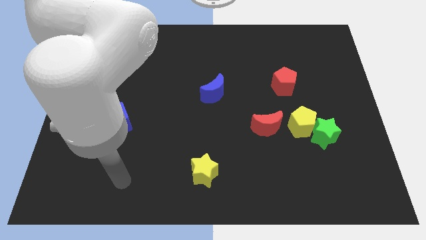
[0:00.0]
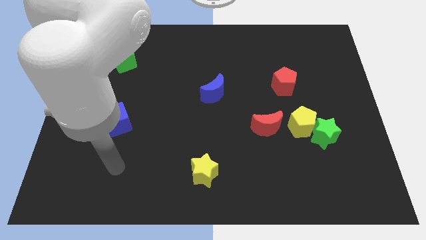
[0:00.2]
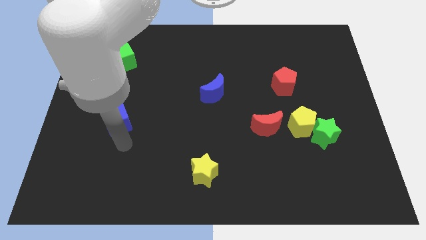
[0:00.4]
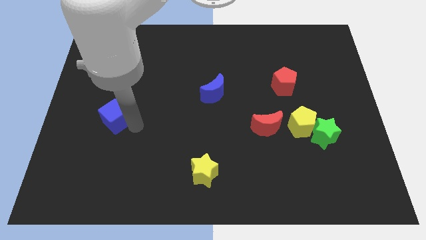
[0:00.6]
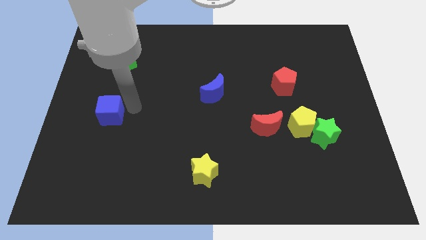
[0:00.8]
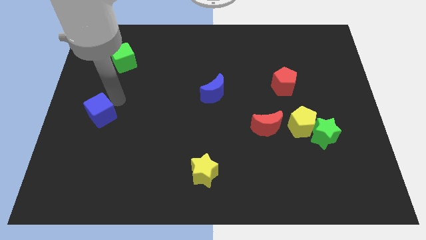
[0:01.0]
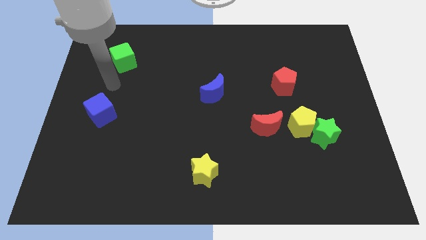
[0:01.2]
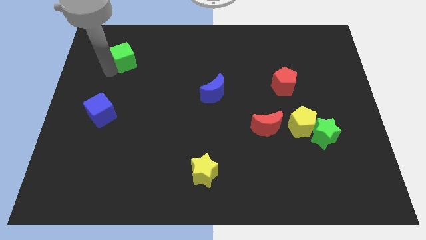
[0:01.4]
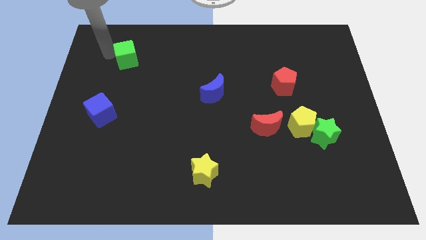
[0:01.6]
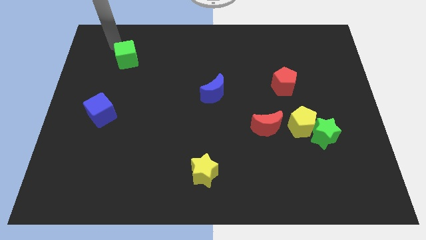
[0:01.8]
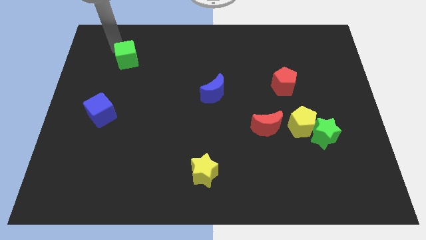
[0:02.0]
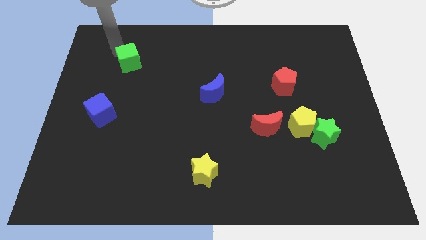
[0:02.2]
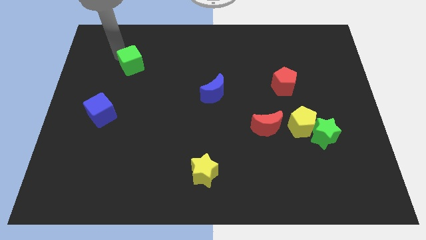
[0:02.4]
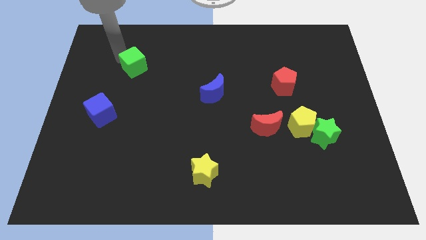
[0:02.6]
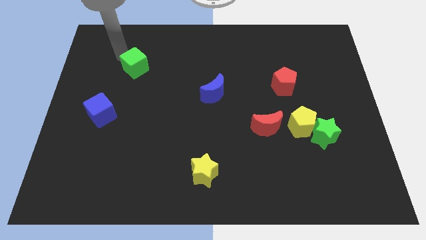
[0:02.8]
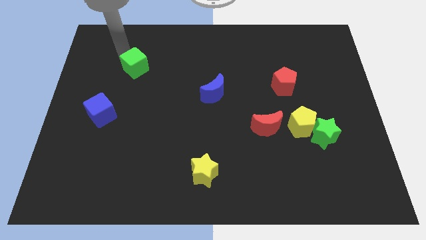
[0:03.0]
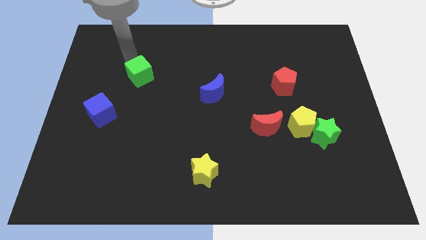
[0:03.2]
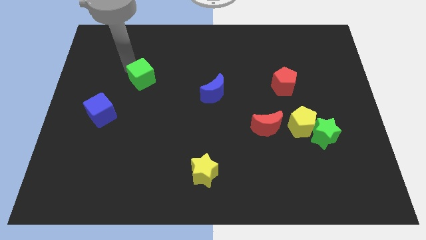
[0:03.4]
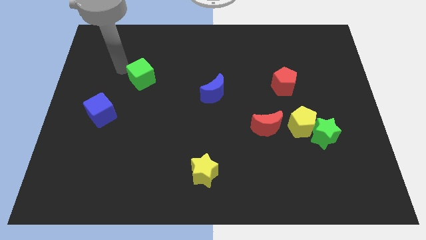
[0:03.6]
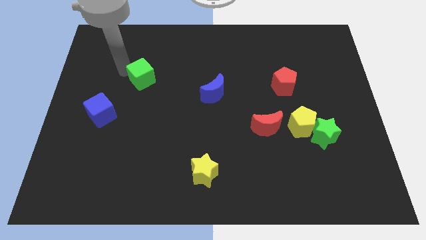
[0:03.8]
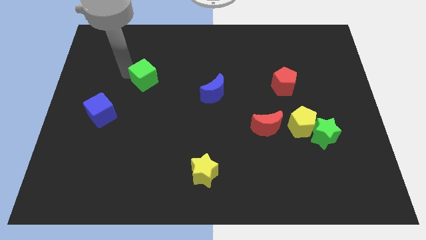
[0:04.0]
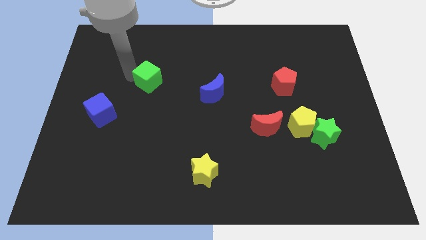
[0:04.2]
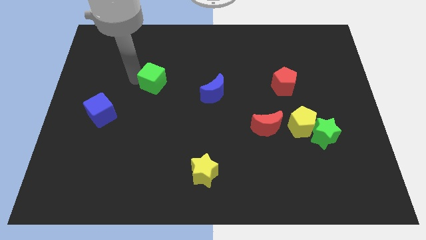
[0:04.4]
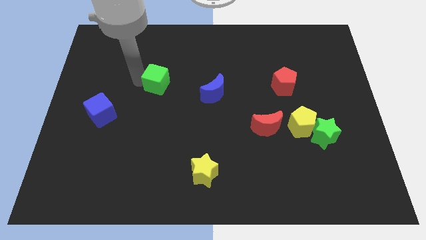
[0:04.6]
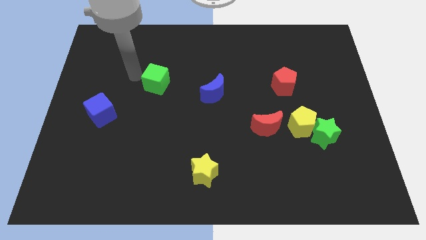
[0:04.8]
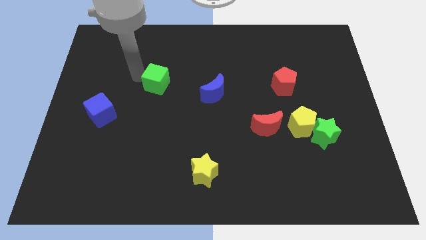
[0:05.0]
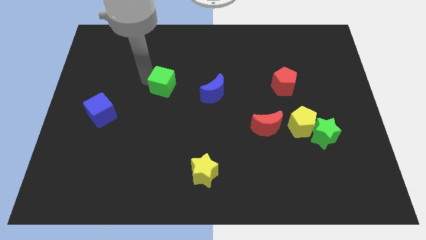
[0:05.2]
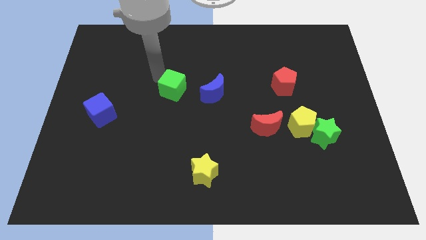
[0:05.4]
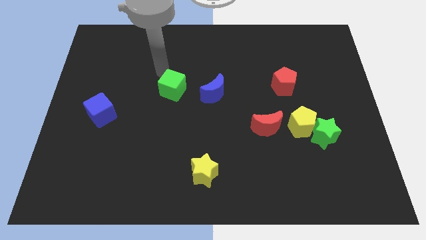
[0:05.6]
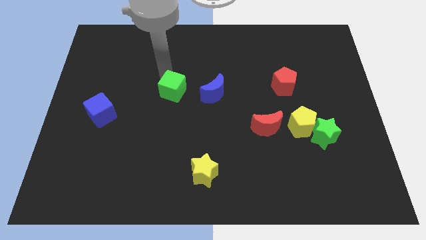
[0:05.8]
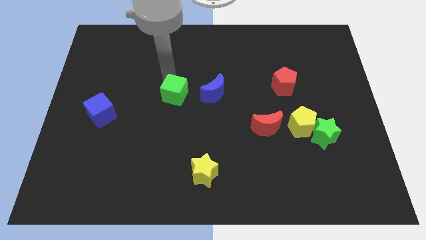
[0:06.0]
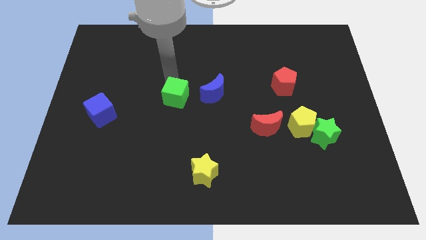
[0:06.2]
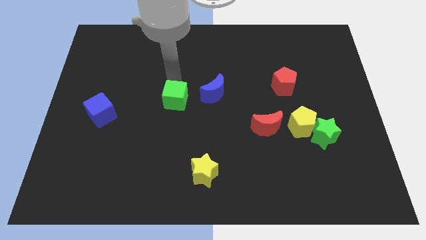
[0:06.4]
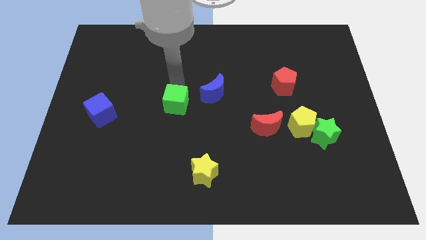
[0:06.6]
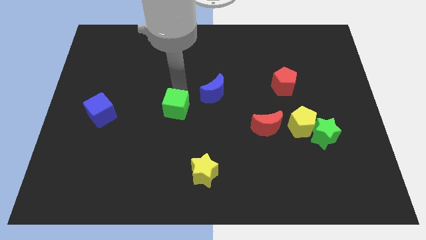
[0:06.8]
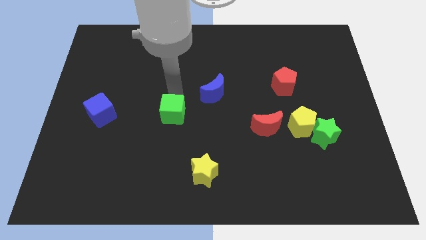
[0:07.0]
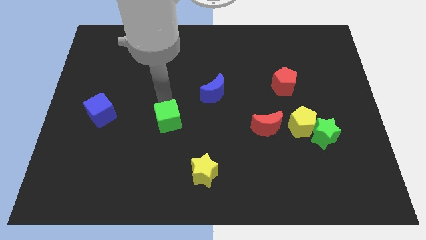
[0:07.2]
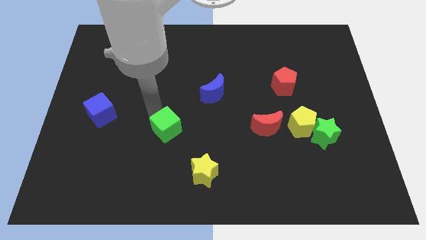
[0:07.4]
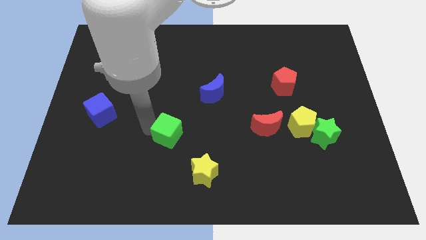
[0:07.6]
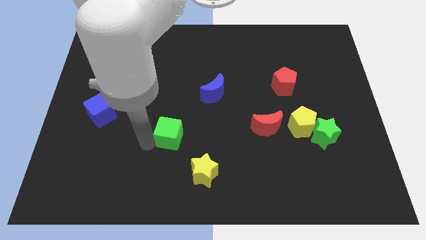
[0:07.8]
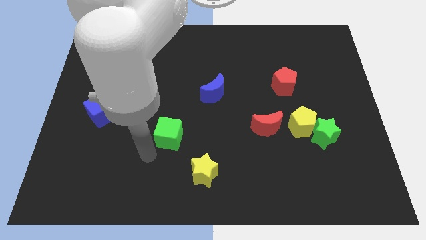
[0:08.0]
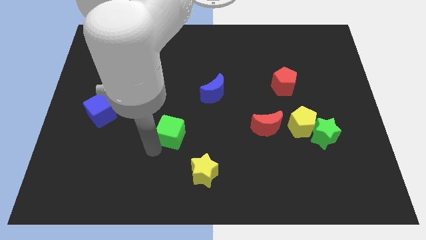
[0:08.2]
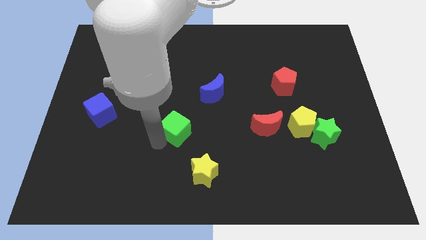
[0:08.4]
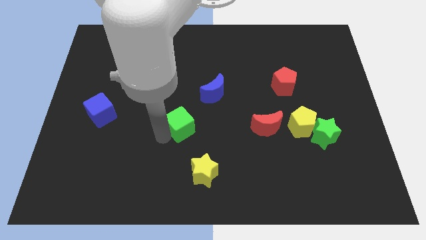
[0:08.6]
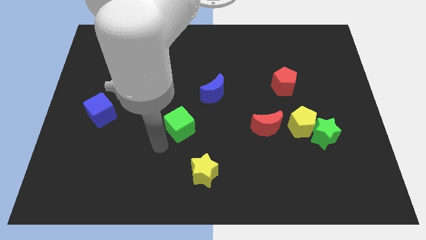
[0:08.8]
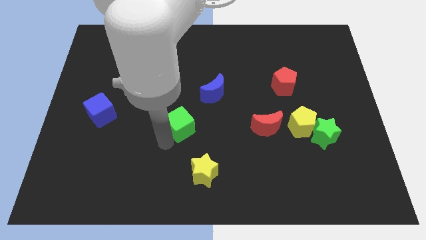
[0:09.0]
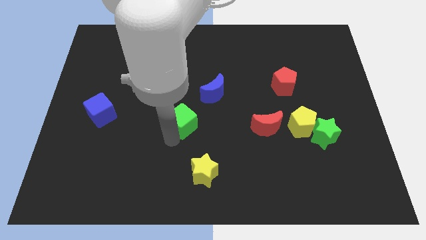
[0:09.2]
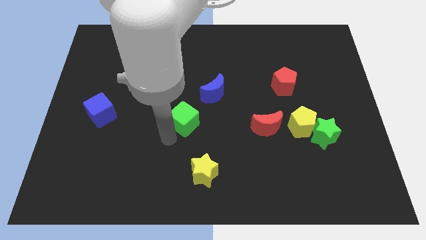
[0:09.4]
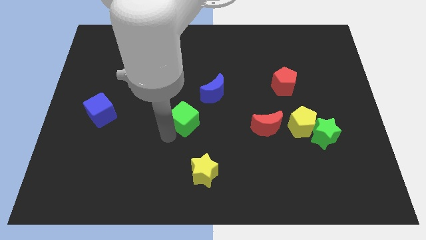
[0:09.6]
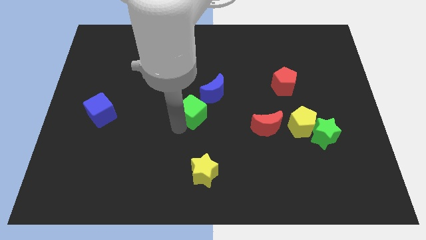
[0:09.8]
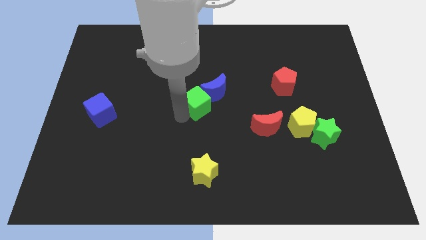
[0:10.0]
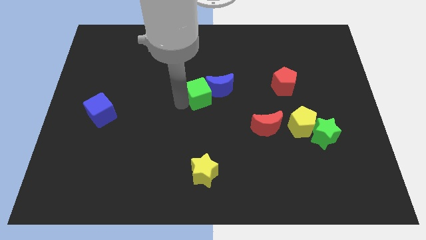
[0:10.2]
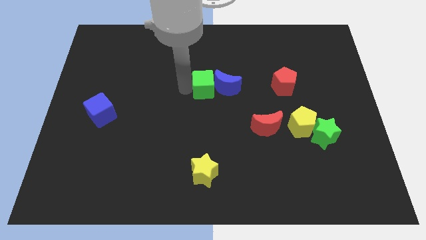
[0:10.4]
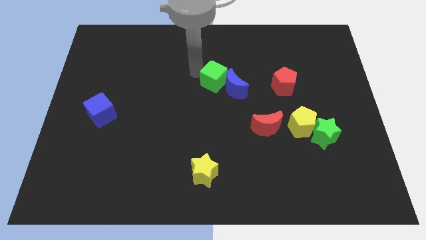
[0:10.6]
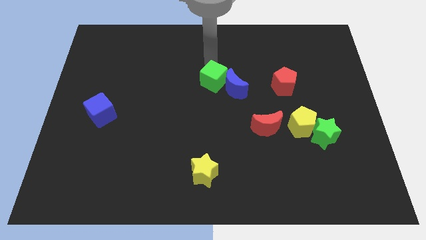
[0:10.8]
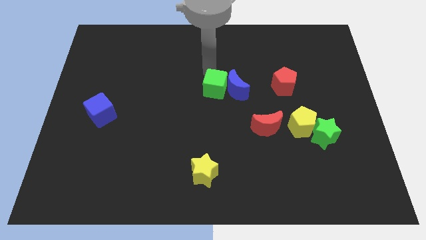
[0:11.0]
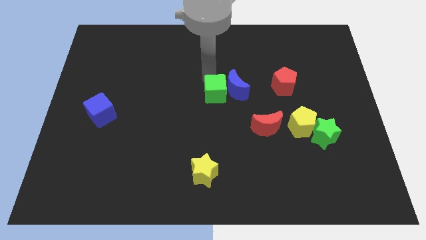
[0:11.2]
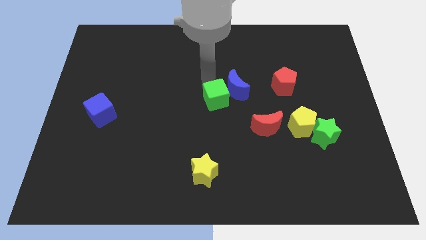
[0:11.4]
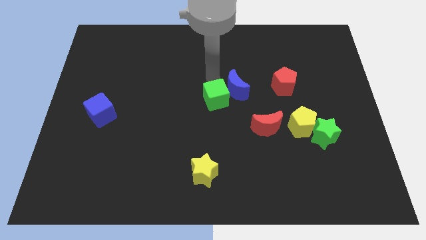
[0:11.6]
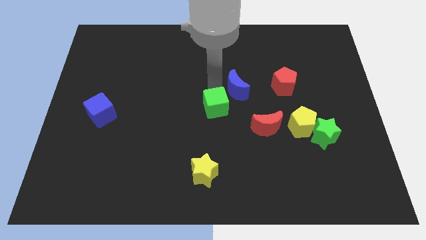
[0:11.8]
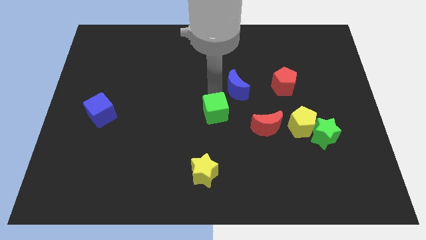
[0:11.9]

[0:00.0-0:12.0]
push the green cube to the left of the red moon

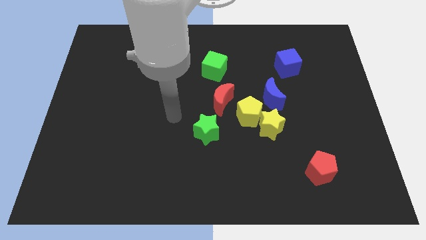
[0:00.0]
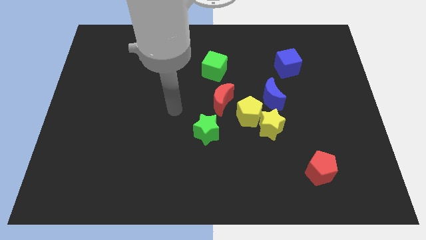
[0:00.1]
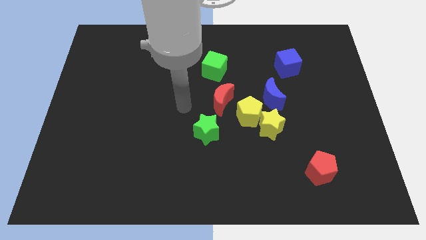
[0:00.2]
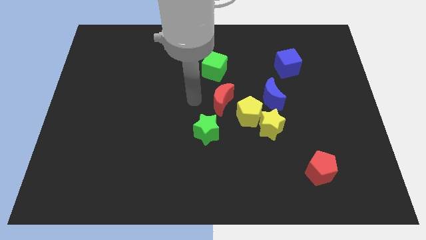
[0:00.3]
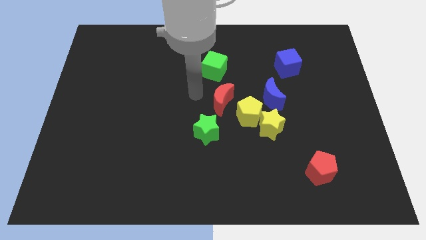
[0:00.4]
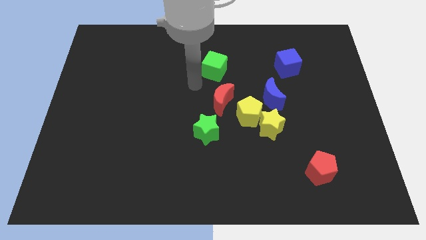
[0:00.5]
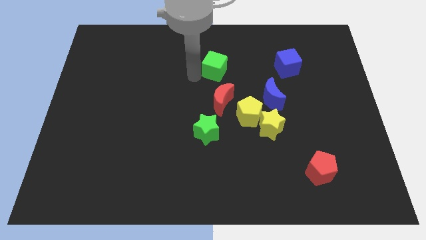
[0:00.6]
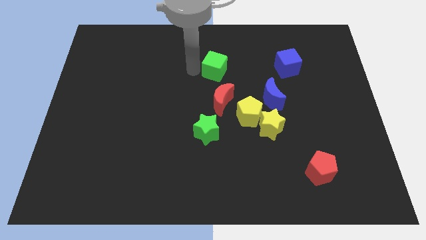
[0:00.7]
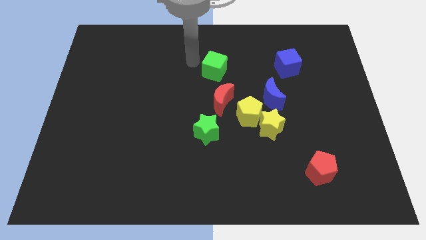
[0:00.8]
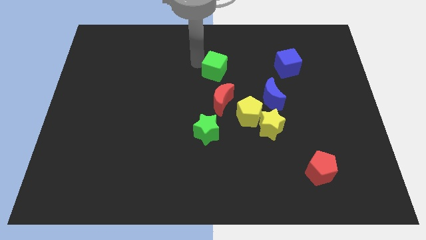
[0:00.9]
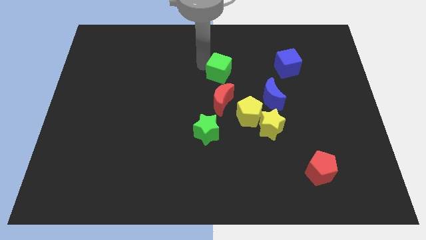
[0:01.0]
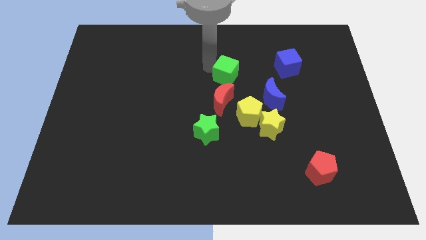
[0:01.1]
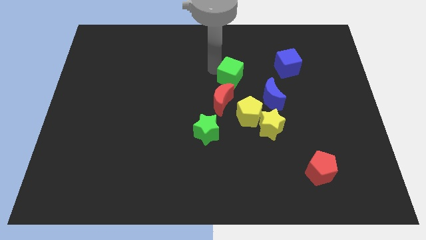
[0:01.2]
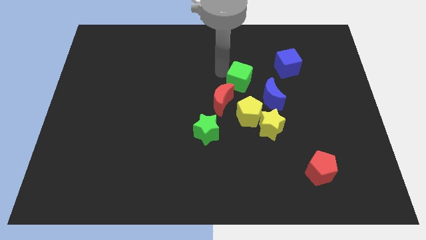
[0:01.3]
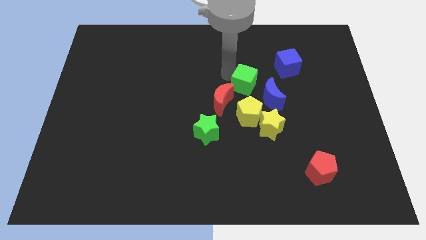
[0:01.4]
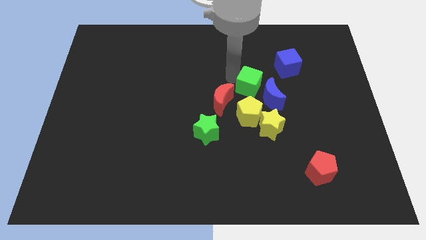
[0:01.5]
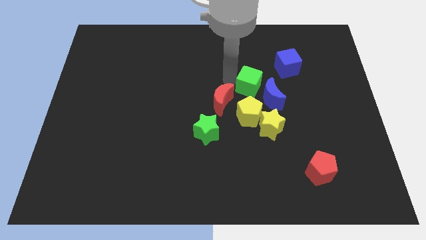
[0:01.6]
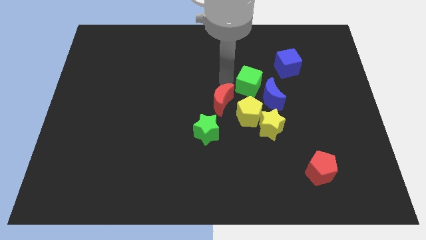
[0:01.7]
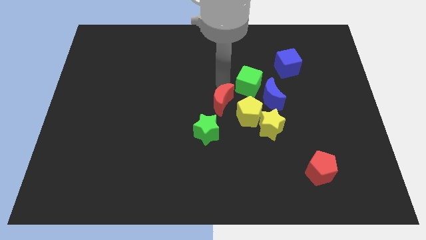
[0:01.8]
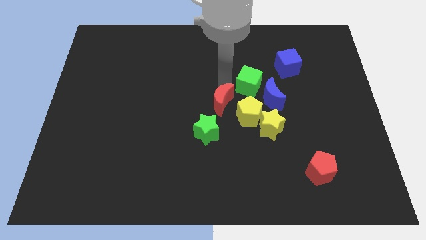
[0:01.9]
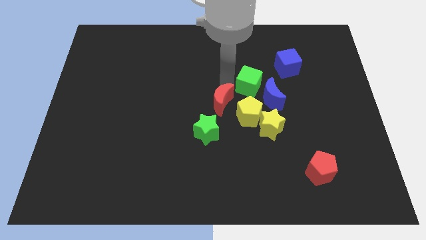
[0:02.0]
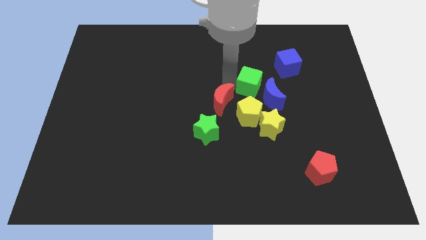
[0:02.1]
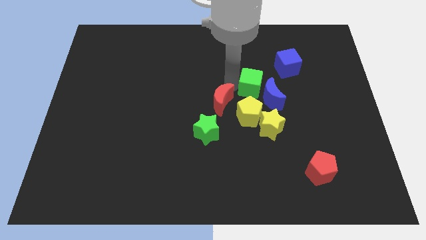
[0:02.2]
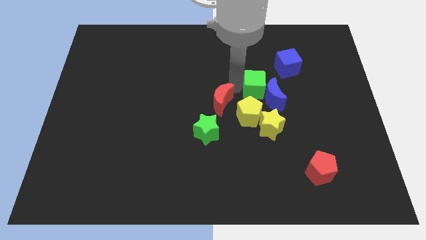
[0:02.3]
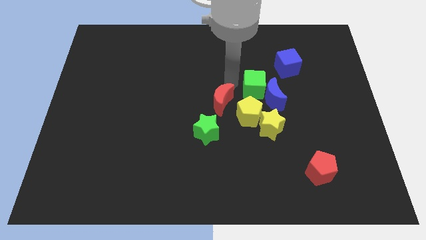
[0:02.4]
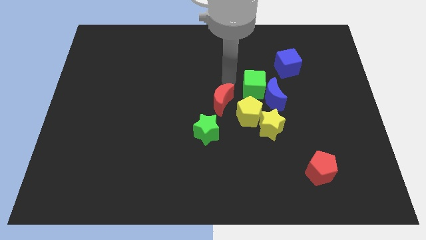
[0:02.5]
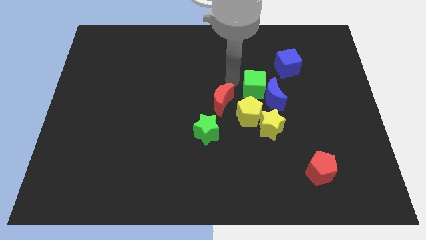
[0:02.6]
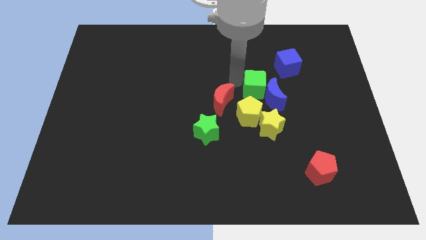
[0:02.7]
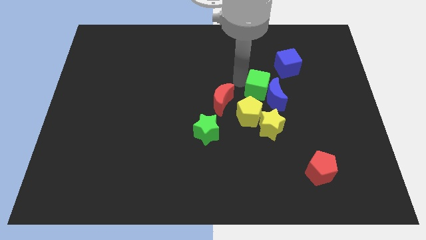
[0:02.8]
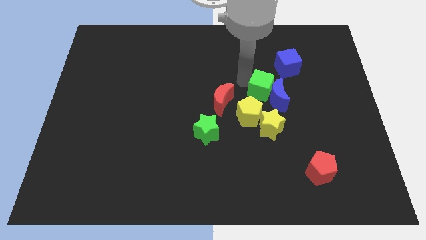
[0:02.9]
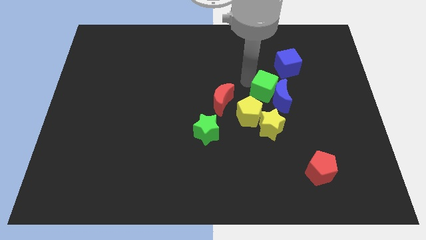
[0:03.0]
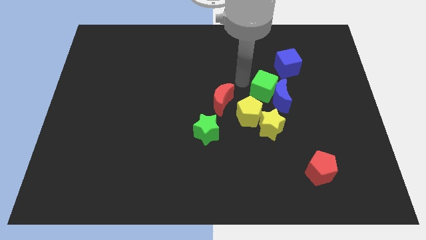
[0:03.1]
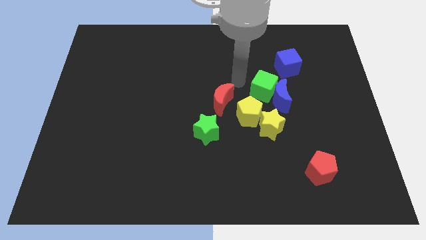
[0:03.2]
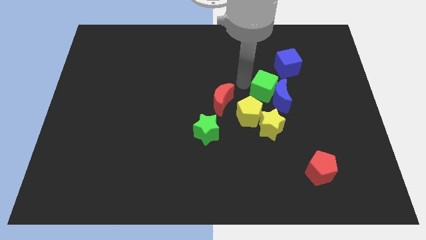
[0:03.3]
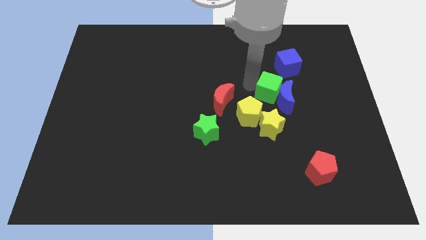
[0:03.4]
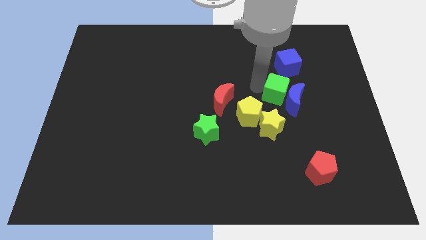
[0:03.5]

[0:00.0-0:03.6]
put the green cube below the blue cube
